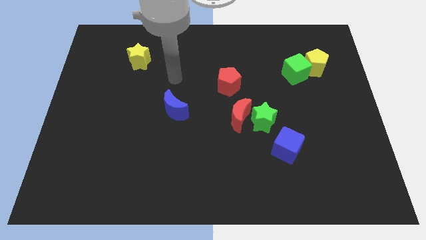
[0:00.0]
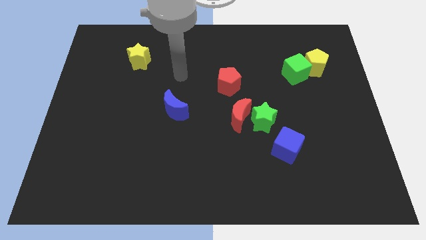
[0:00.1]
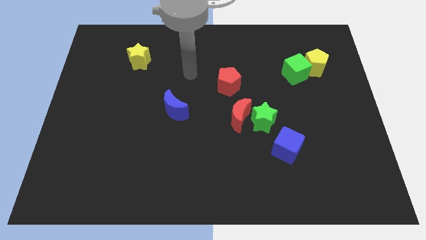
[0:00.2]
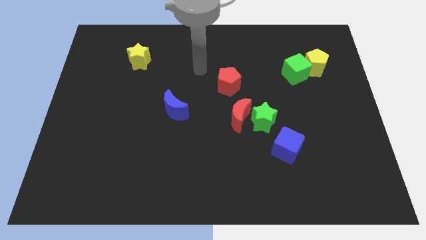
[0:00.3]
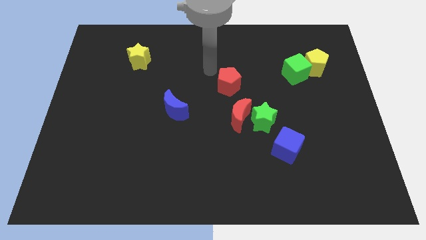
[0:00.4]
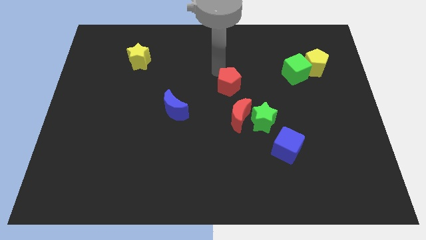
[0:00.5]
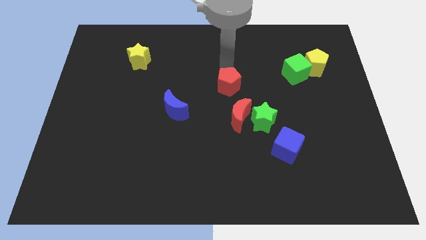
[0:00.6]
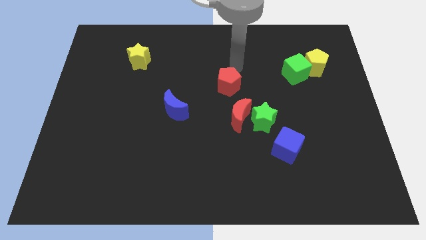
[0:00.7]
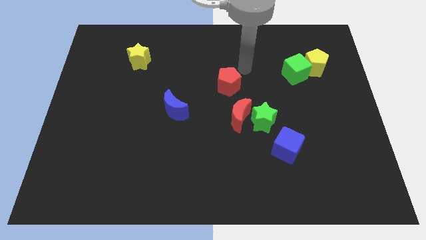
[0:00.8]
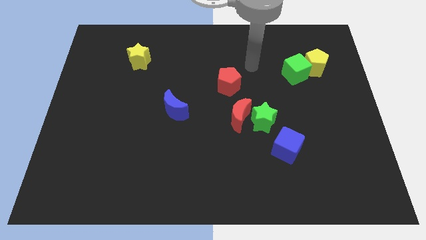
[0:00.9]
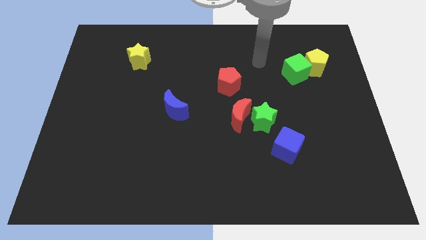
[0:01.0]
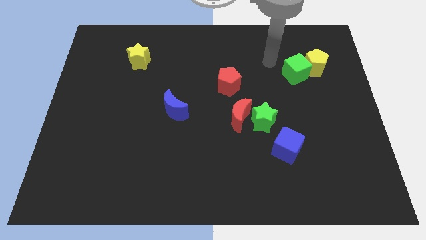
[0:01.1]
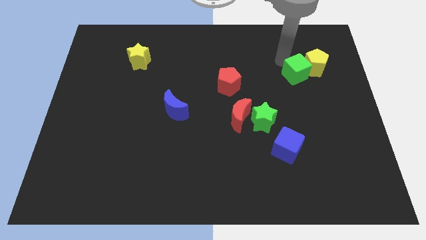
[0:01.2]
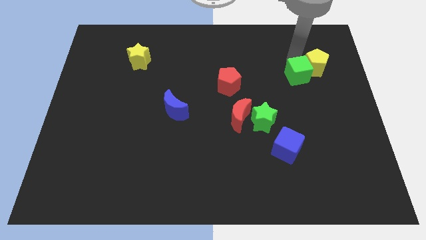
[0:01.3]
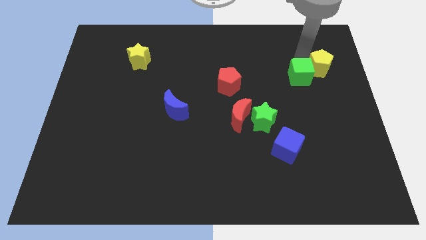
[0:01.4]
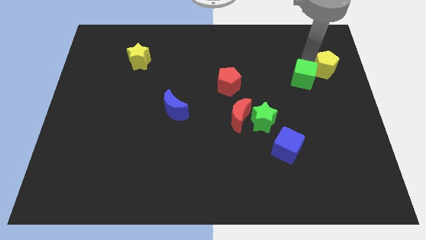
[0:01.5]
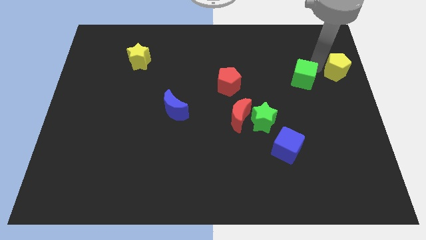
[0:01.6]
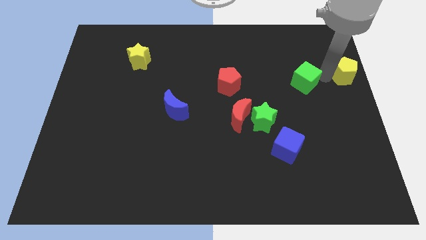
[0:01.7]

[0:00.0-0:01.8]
move the green cube away from the yellow pentagon

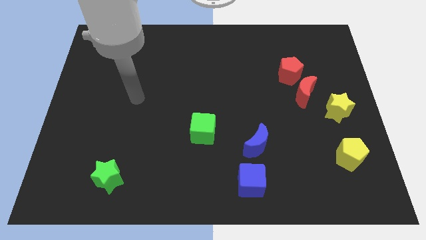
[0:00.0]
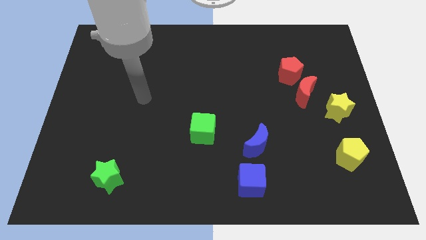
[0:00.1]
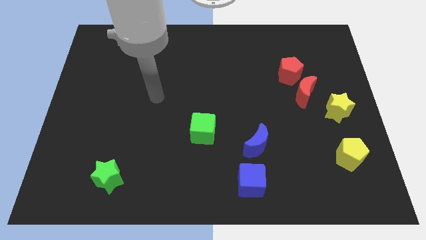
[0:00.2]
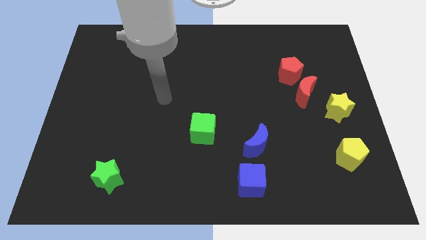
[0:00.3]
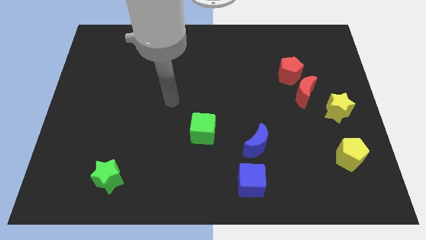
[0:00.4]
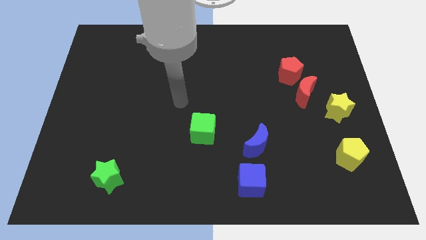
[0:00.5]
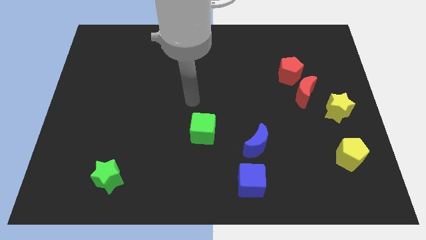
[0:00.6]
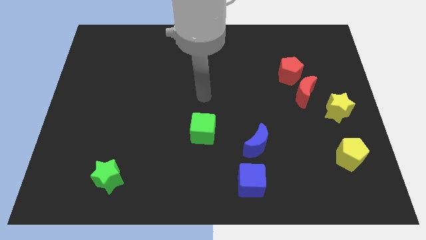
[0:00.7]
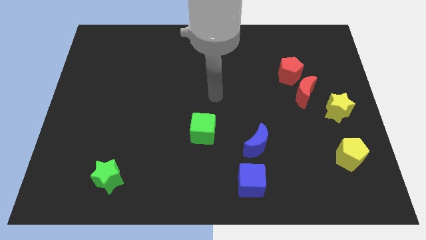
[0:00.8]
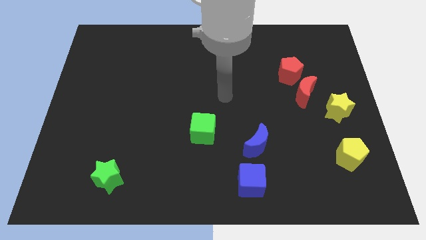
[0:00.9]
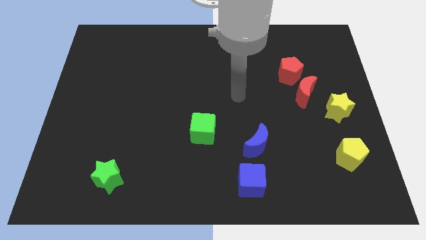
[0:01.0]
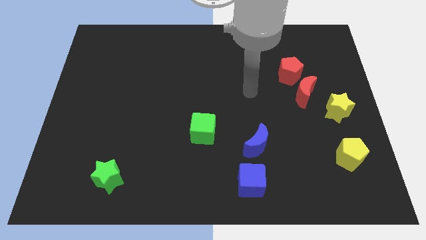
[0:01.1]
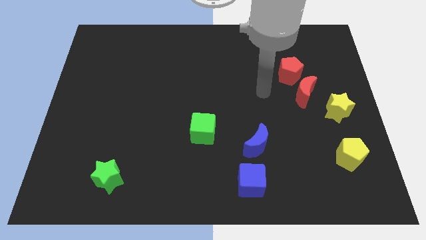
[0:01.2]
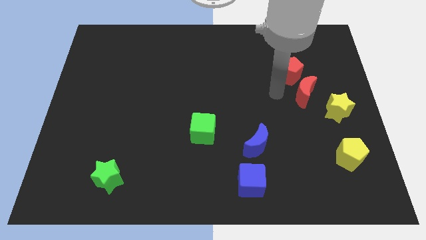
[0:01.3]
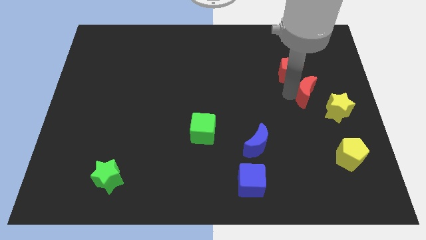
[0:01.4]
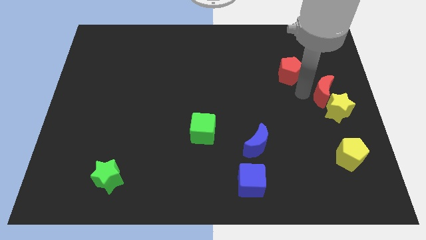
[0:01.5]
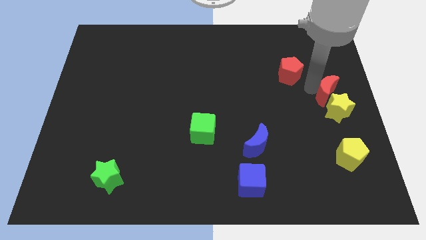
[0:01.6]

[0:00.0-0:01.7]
separate the red pentagon from the red moon

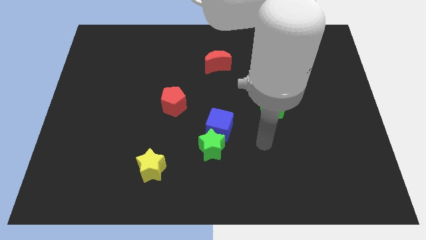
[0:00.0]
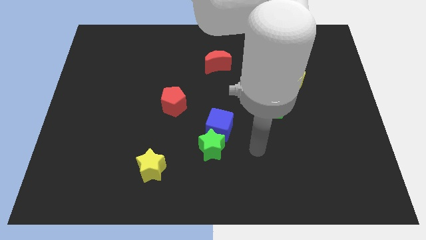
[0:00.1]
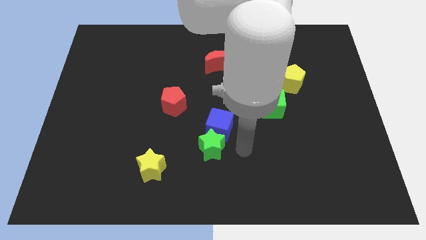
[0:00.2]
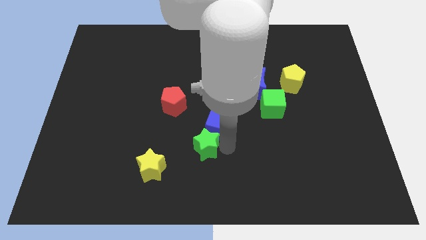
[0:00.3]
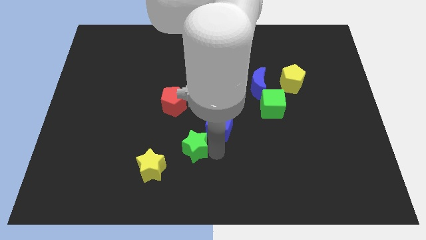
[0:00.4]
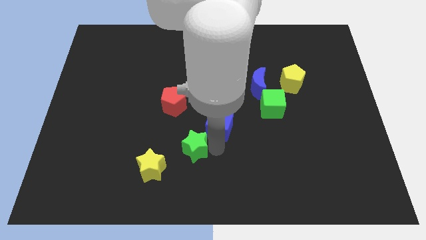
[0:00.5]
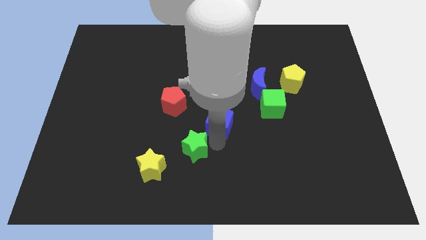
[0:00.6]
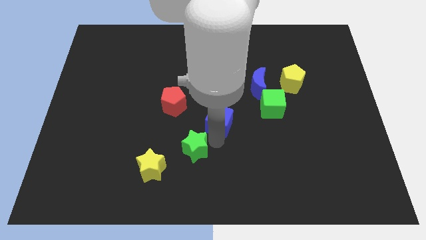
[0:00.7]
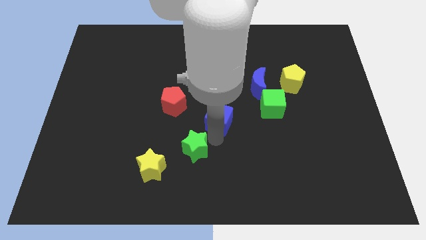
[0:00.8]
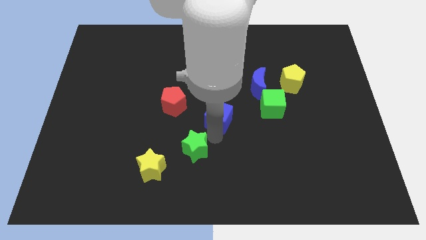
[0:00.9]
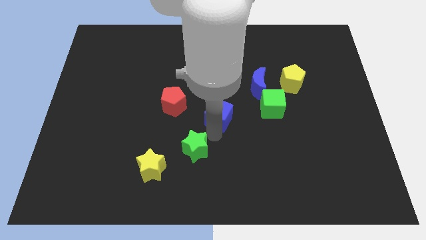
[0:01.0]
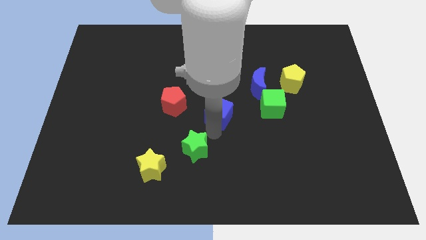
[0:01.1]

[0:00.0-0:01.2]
move the blue cube away from the green star

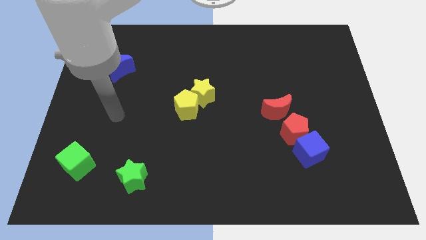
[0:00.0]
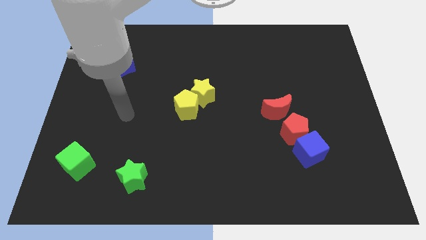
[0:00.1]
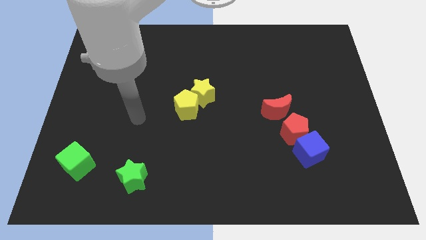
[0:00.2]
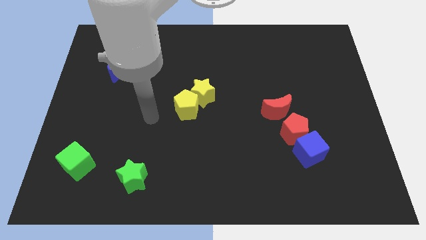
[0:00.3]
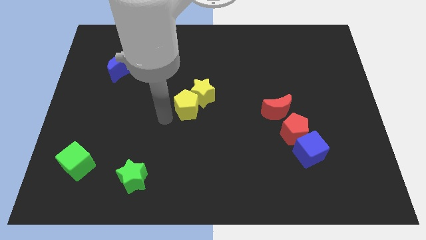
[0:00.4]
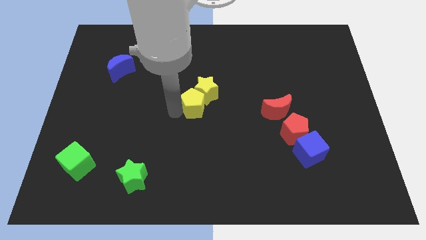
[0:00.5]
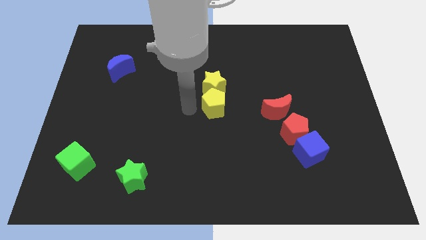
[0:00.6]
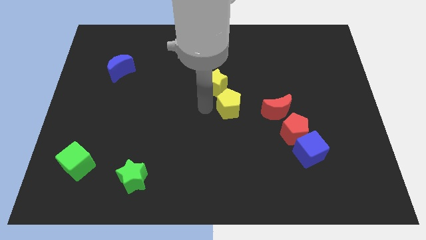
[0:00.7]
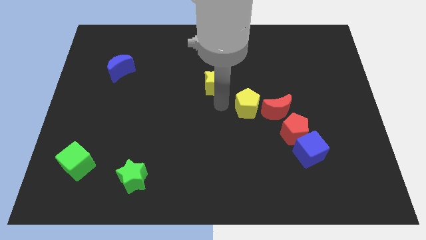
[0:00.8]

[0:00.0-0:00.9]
move the yellow star away from the yellow pentagon

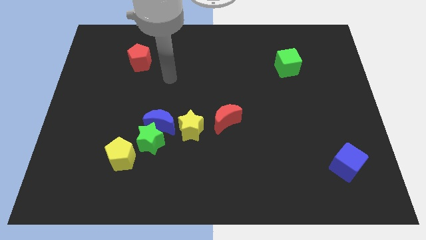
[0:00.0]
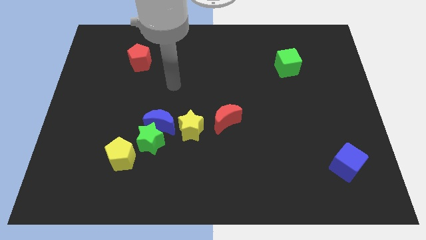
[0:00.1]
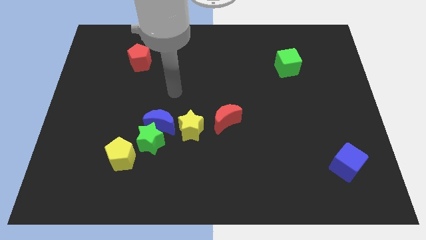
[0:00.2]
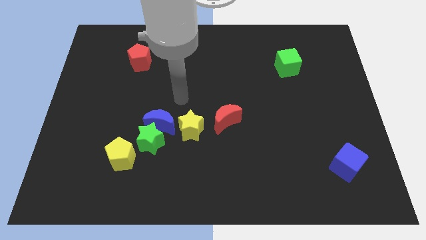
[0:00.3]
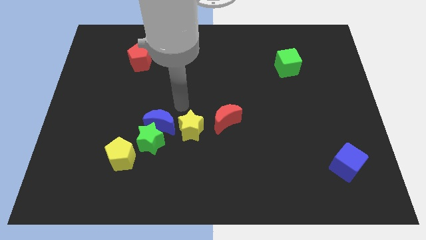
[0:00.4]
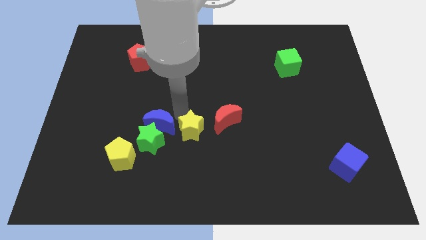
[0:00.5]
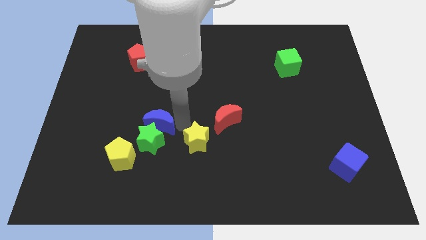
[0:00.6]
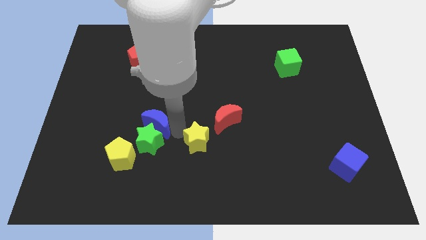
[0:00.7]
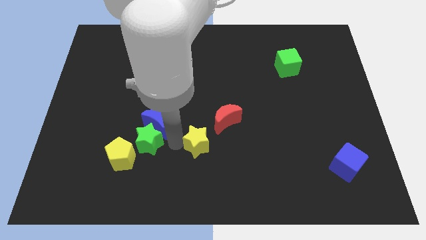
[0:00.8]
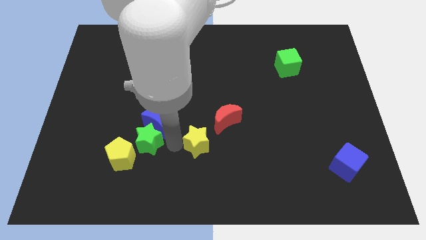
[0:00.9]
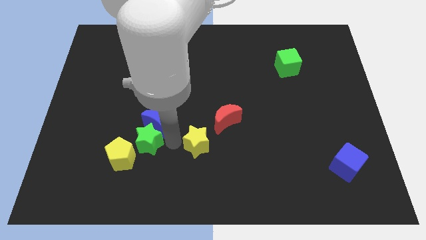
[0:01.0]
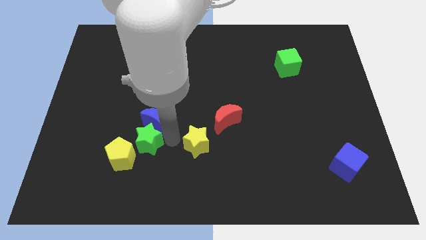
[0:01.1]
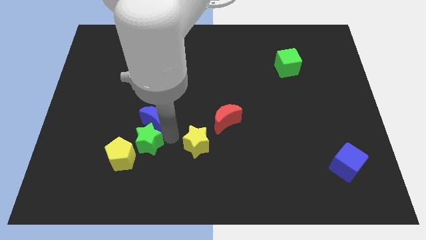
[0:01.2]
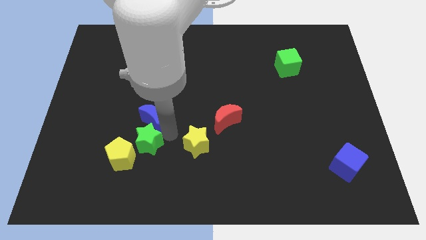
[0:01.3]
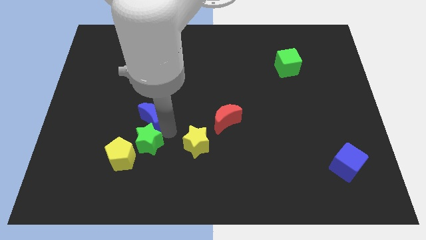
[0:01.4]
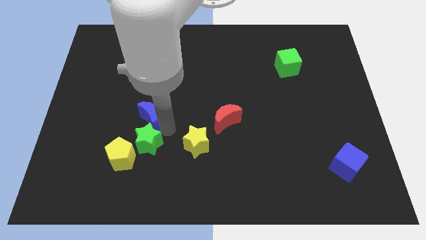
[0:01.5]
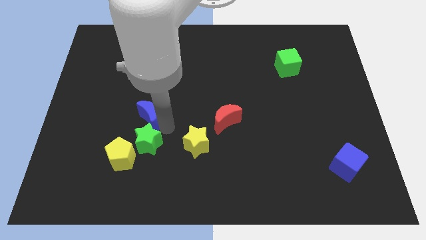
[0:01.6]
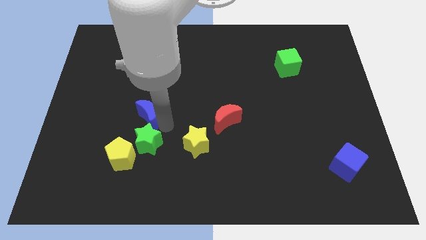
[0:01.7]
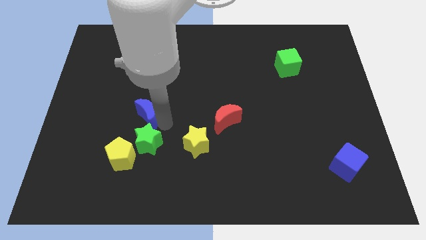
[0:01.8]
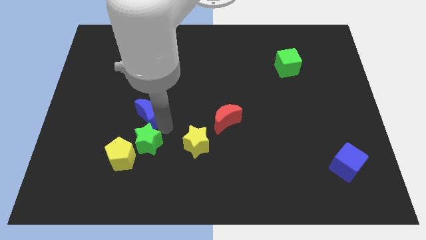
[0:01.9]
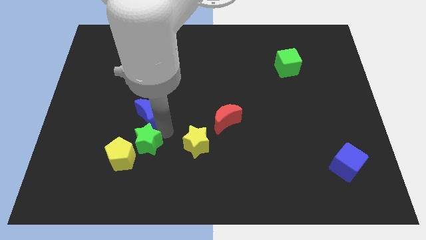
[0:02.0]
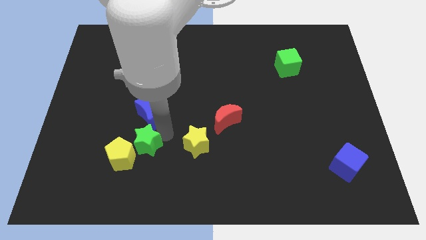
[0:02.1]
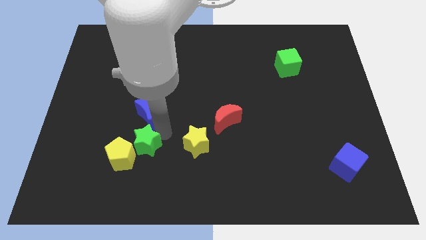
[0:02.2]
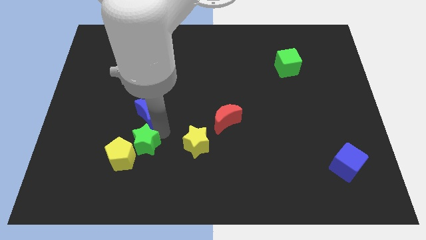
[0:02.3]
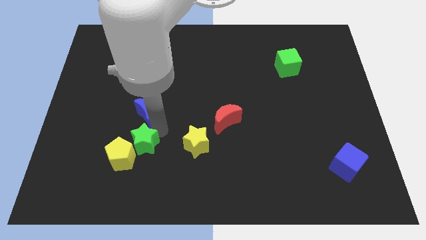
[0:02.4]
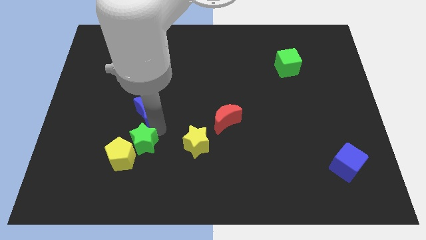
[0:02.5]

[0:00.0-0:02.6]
move the blue moon away from the green star and yellow star

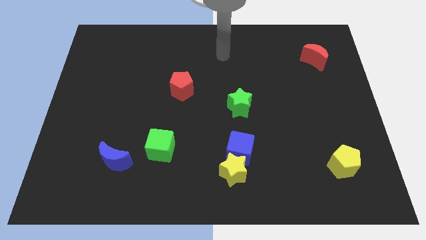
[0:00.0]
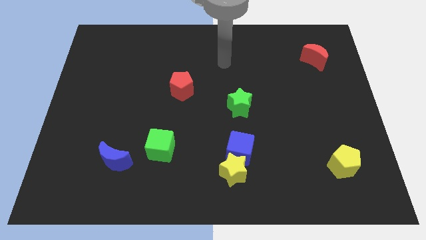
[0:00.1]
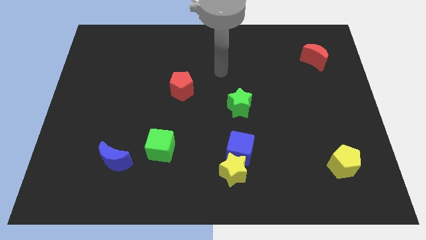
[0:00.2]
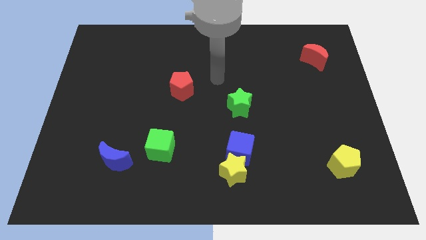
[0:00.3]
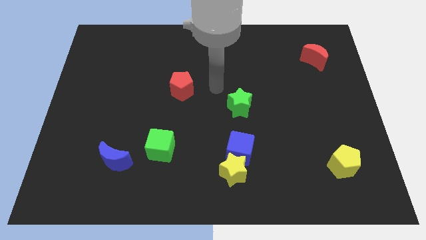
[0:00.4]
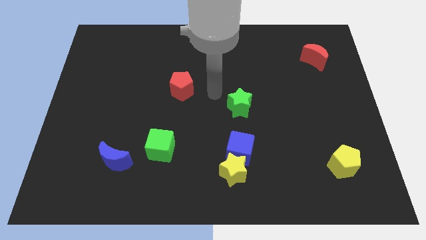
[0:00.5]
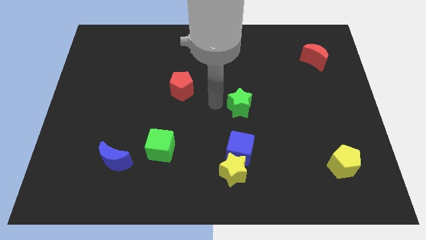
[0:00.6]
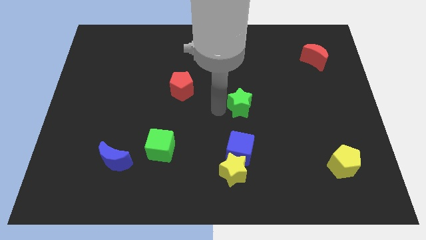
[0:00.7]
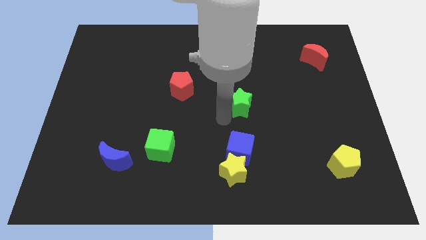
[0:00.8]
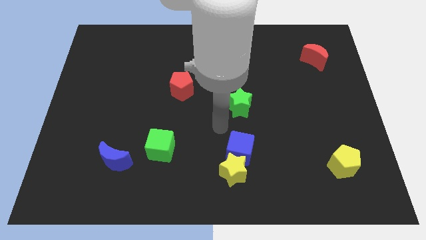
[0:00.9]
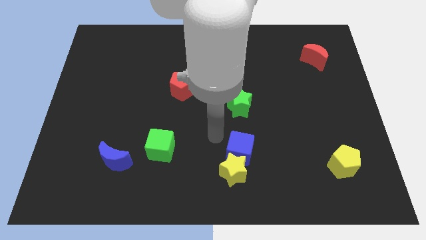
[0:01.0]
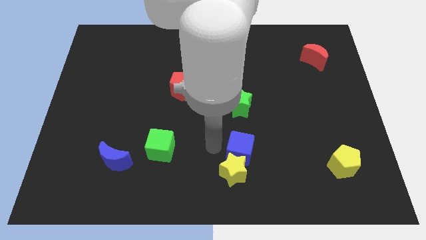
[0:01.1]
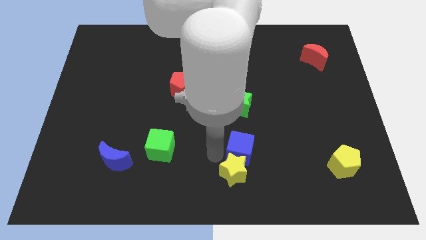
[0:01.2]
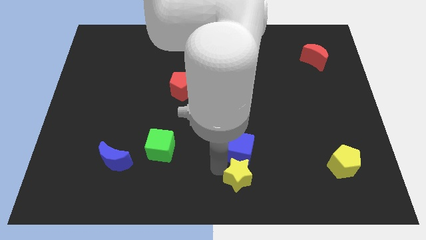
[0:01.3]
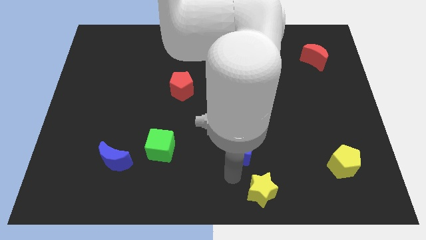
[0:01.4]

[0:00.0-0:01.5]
move the blue cube away from the yellow star
